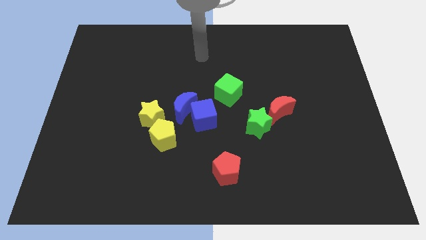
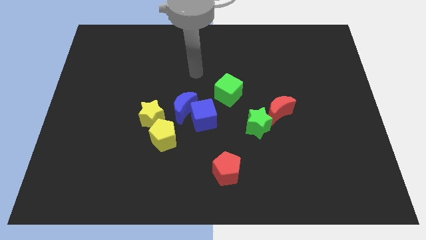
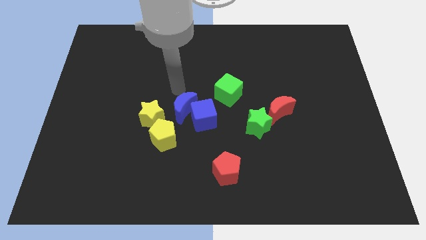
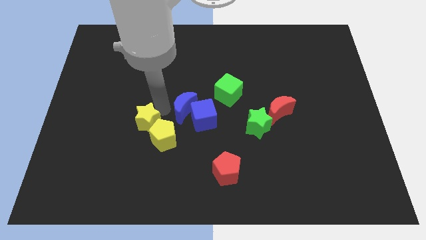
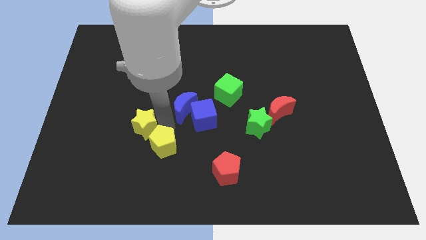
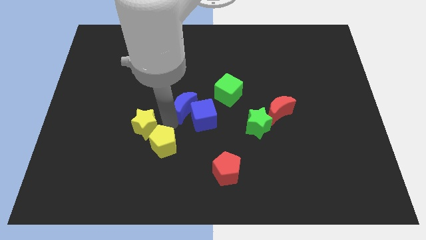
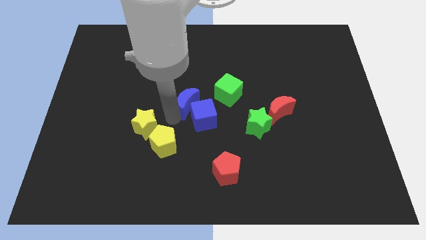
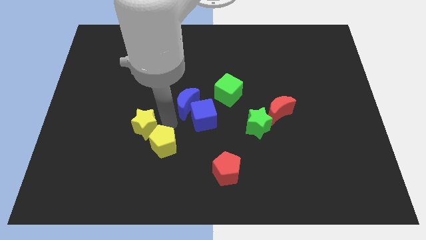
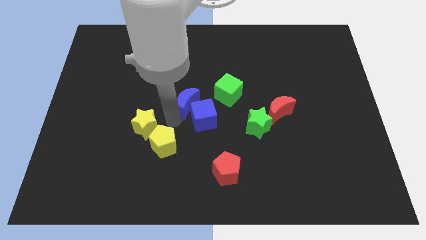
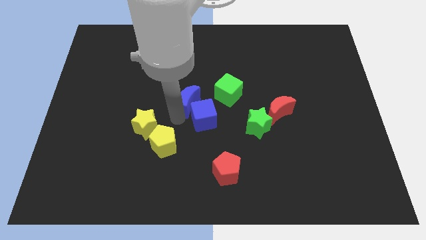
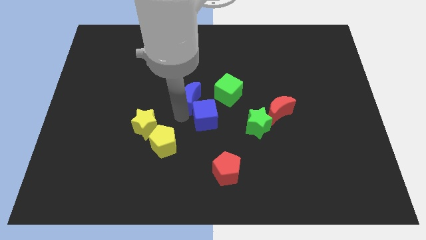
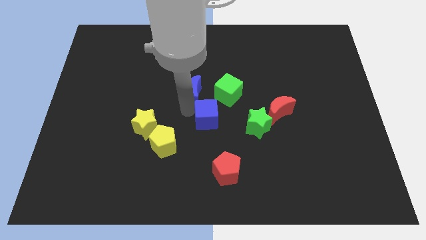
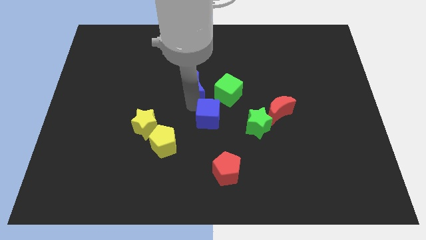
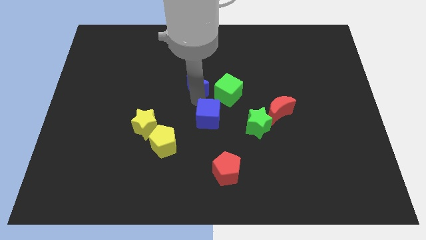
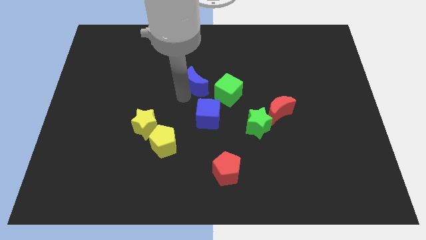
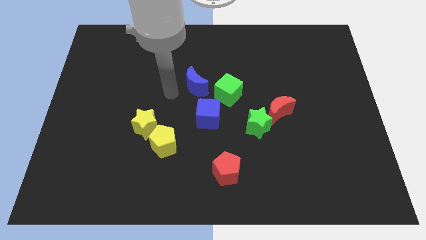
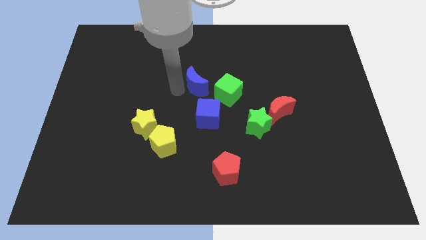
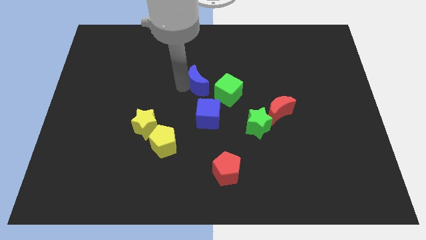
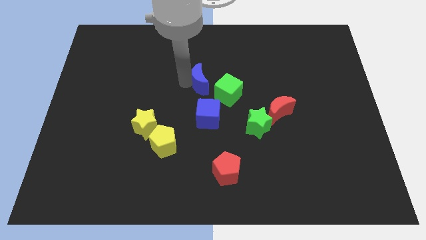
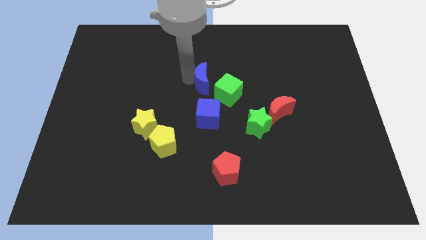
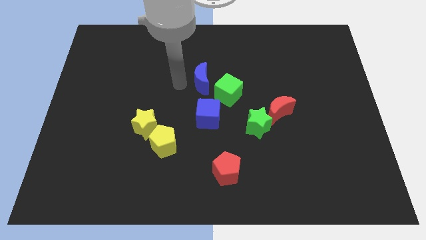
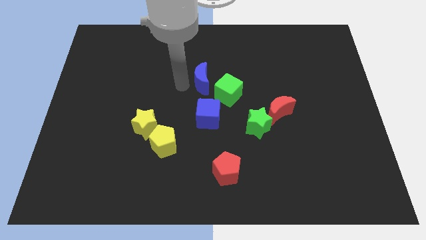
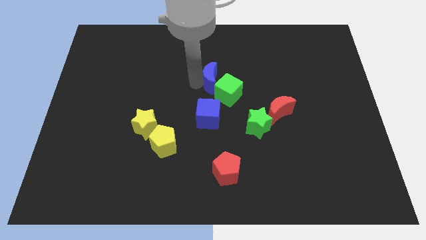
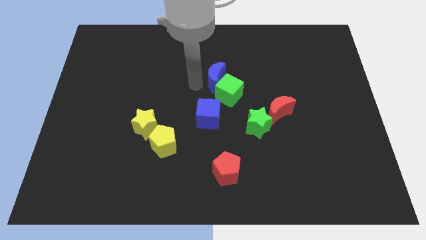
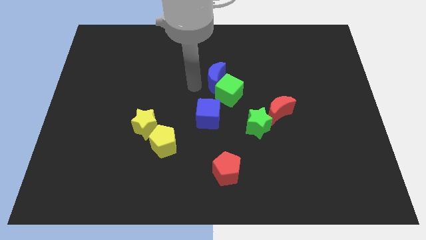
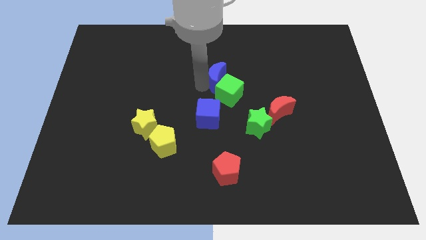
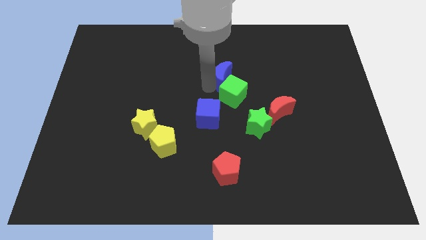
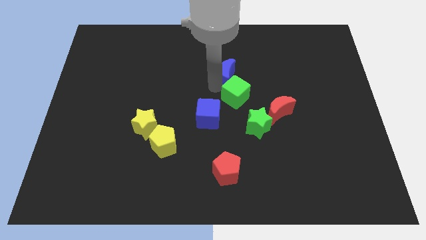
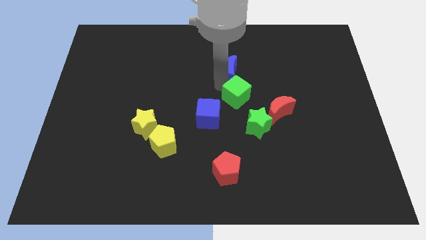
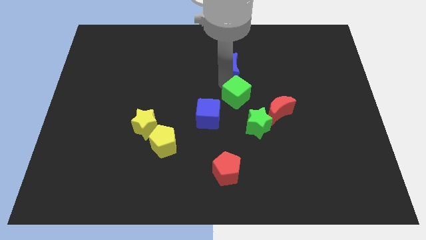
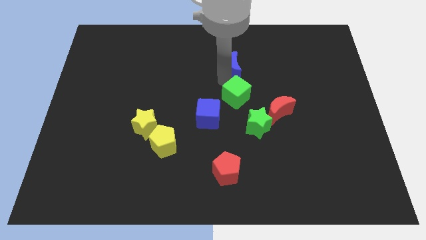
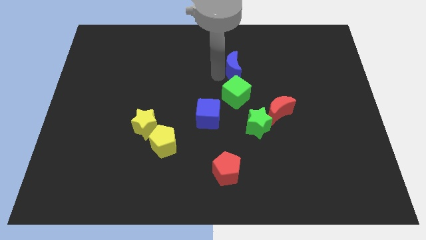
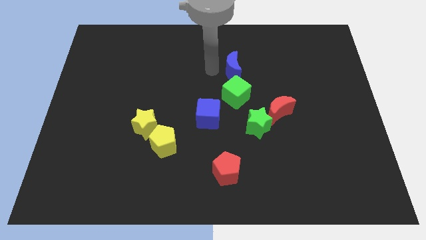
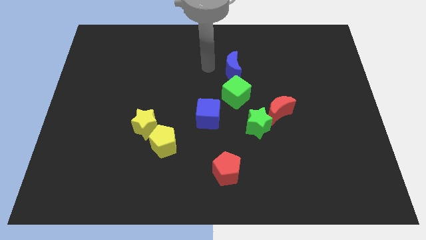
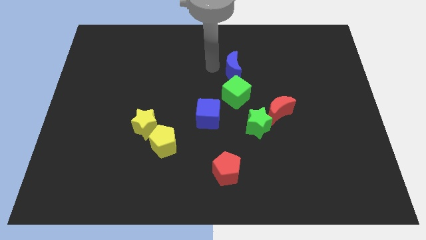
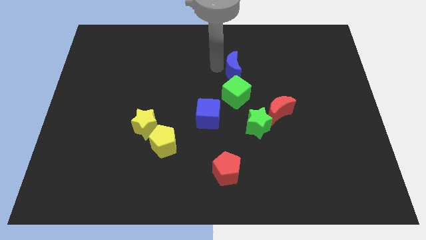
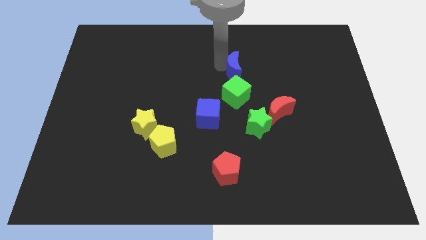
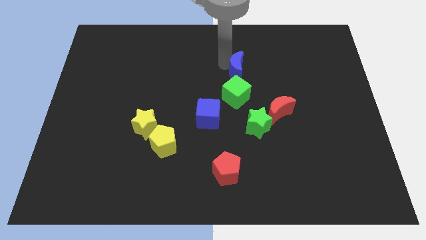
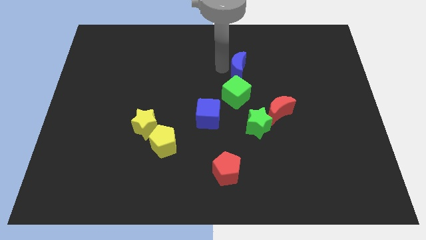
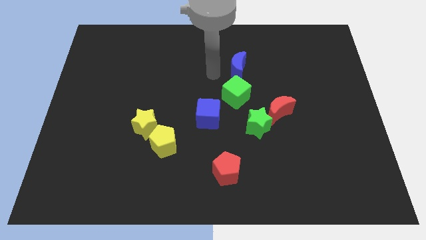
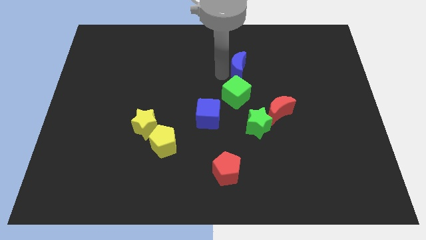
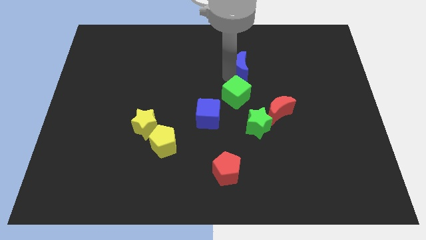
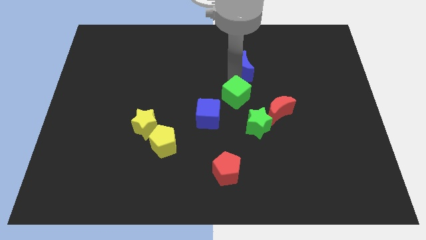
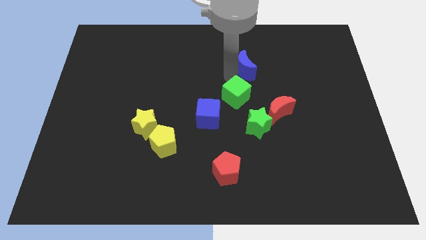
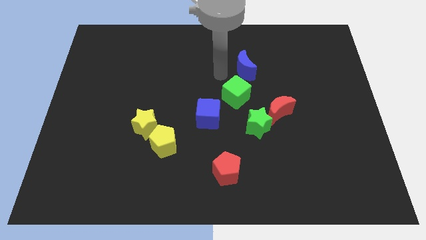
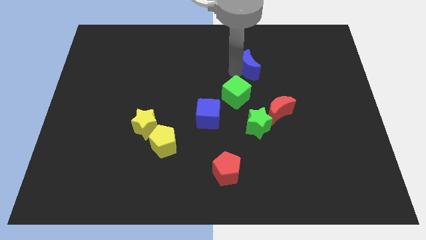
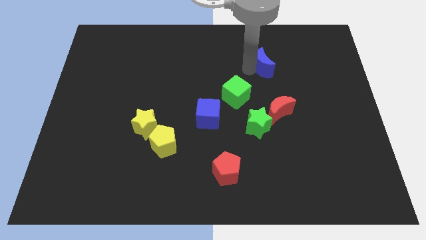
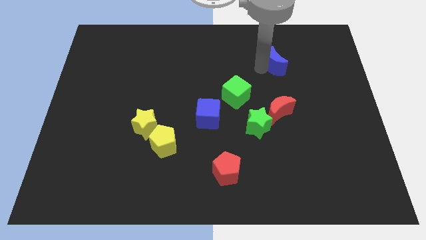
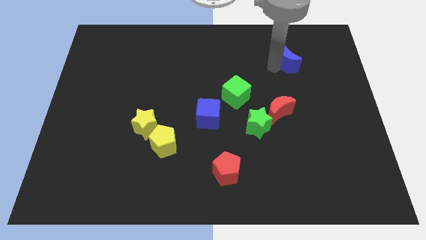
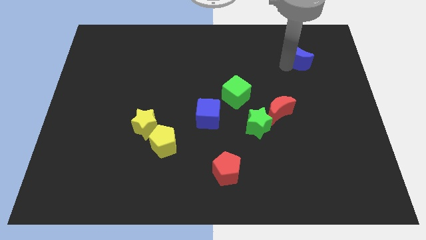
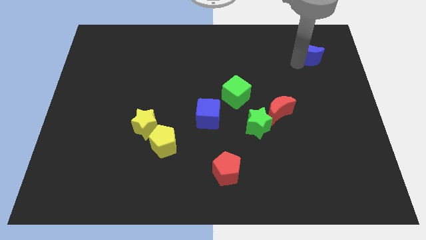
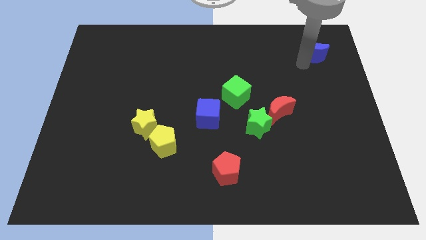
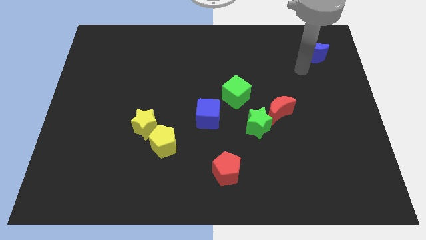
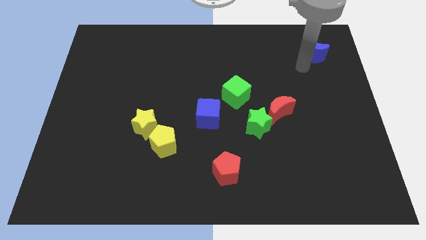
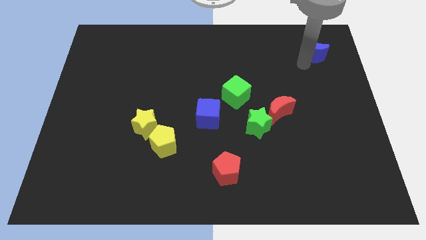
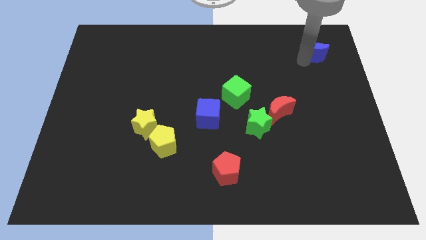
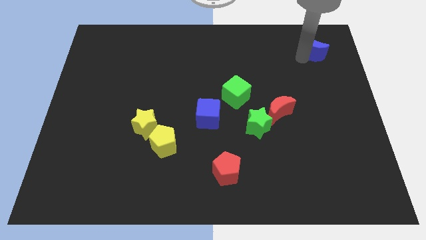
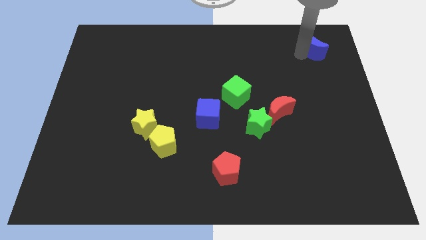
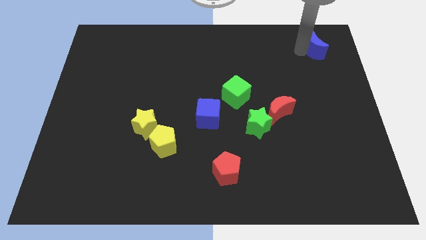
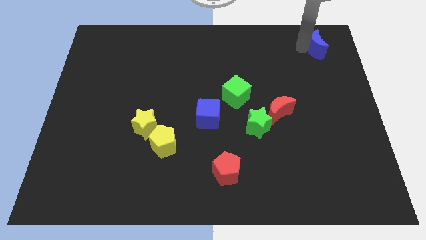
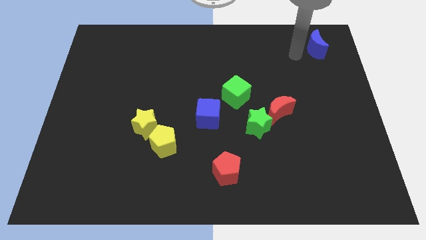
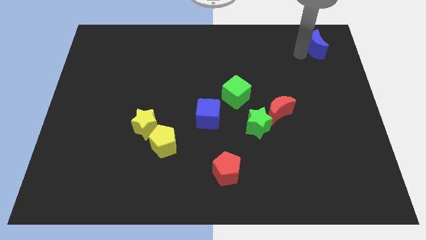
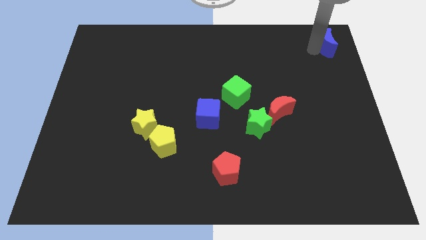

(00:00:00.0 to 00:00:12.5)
move the blue moon to the upper right corner

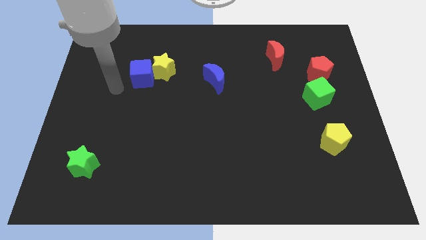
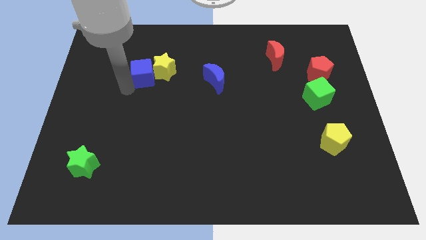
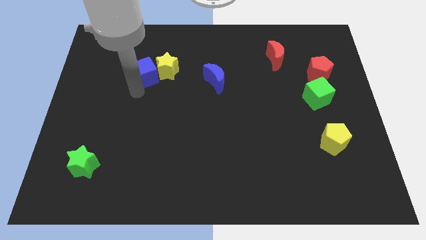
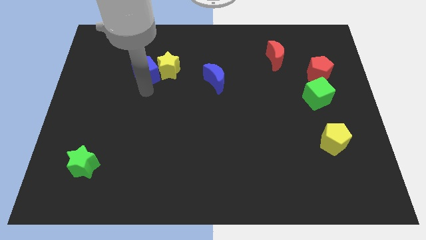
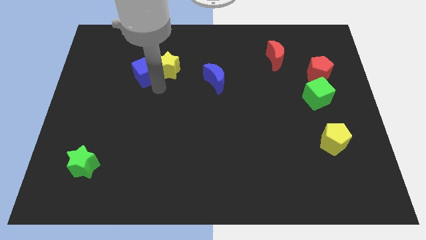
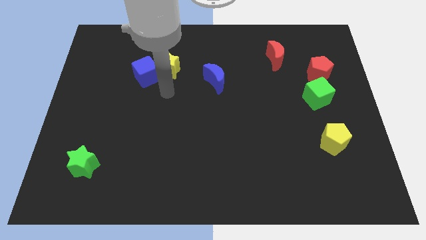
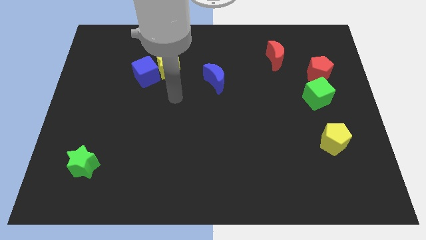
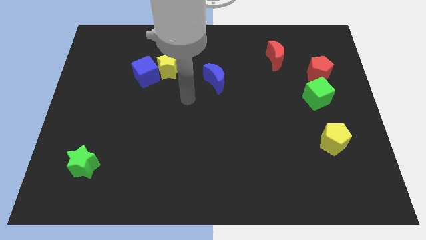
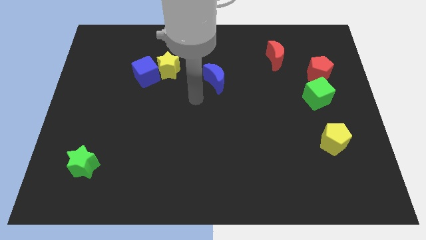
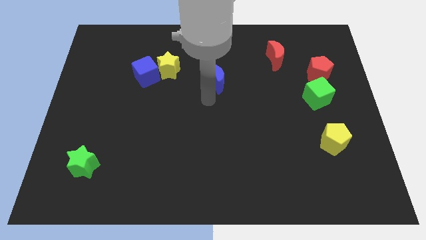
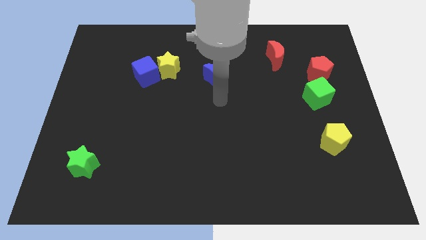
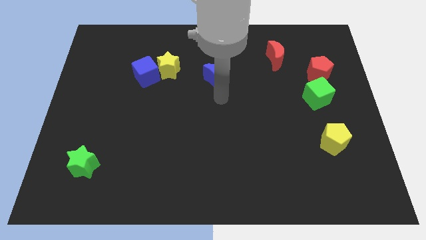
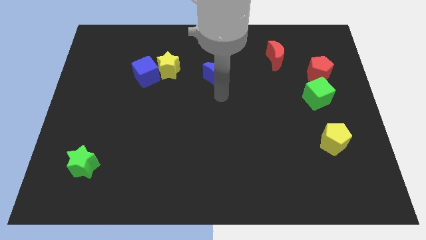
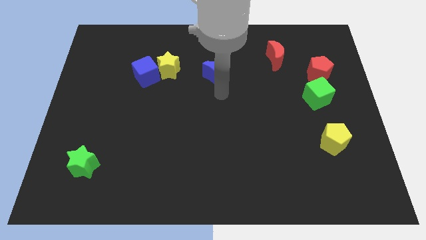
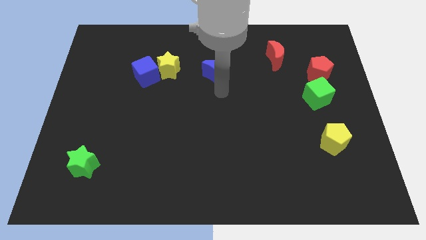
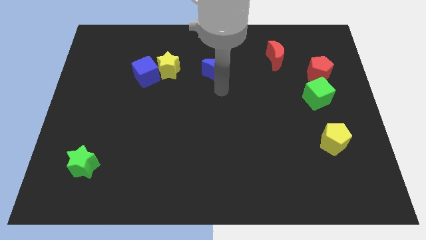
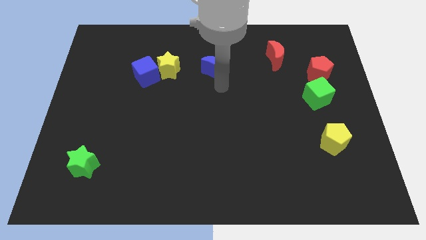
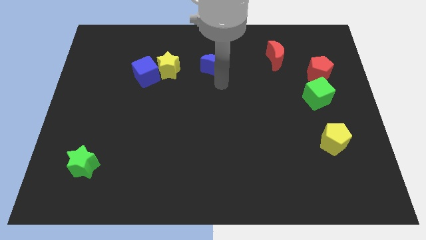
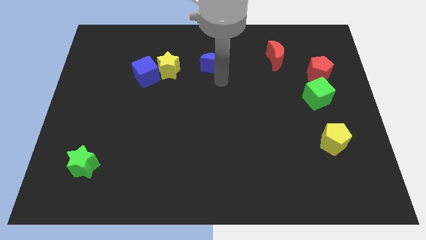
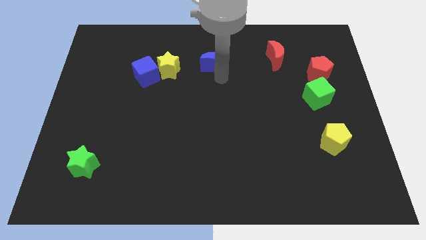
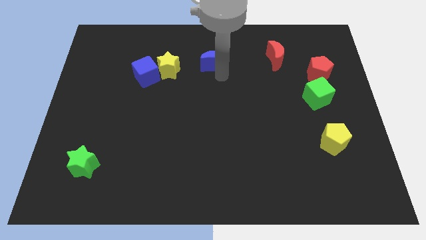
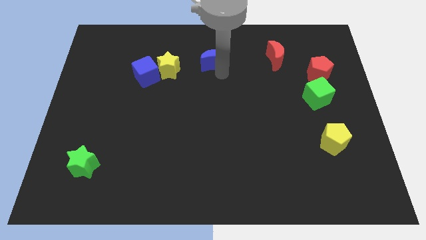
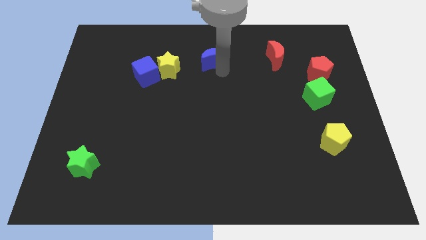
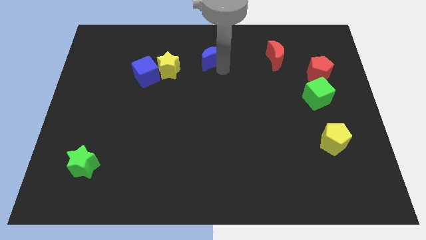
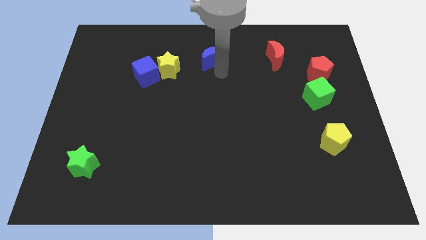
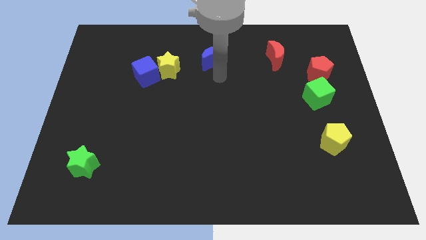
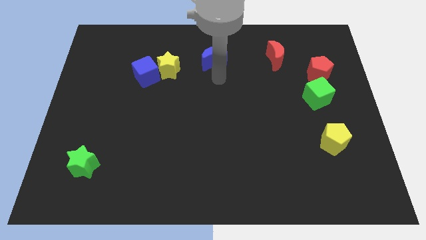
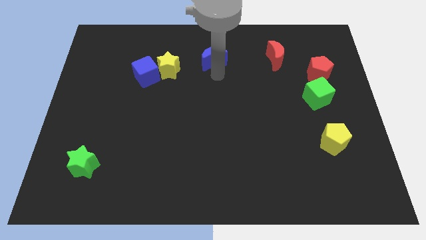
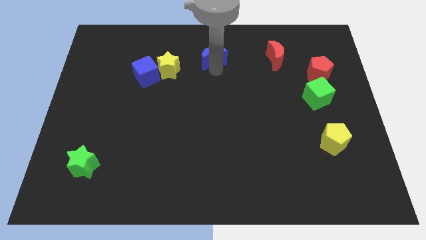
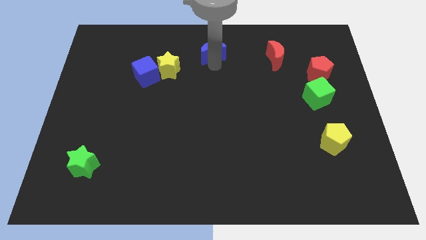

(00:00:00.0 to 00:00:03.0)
move the blue moon to the top
